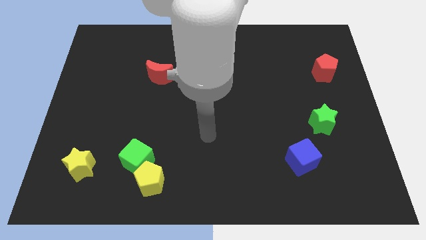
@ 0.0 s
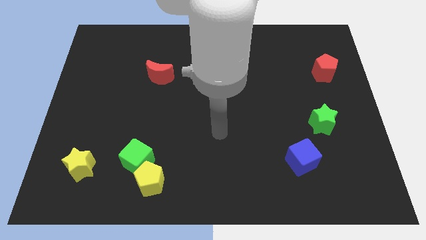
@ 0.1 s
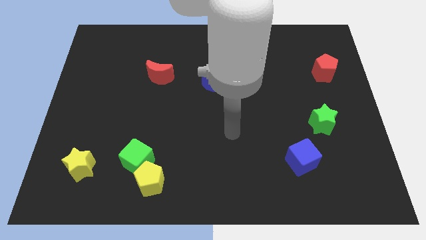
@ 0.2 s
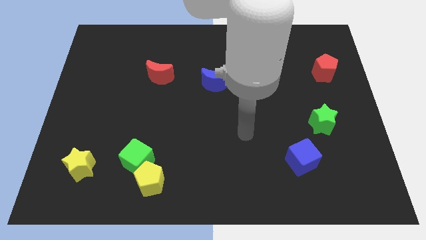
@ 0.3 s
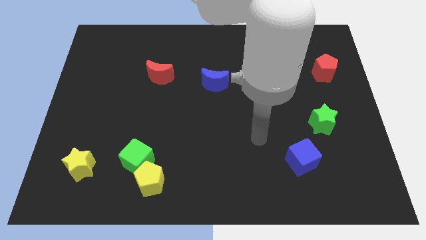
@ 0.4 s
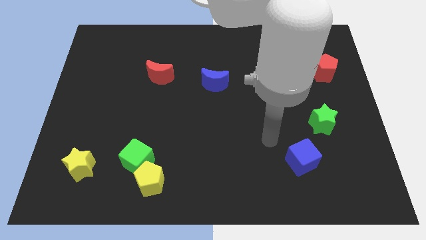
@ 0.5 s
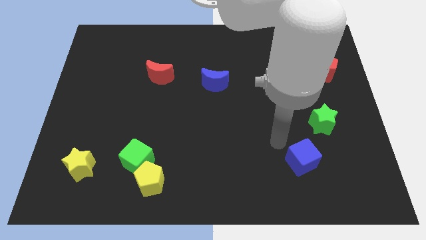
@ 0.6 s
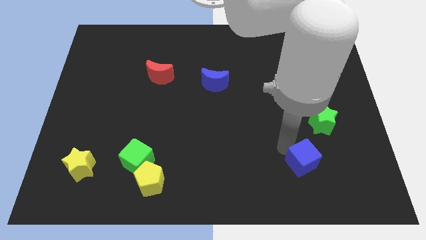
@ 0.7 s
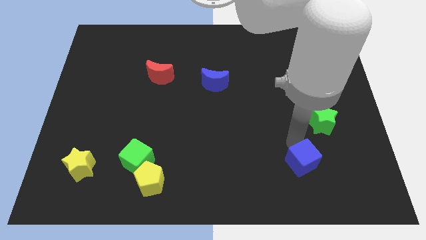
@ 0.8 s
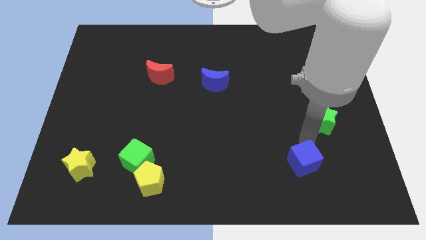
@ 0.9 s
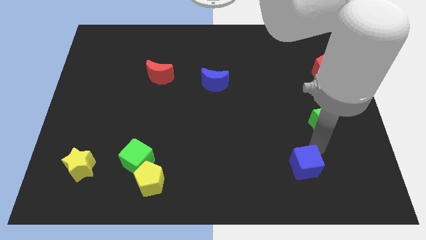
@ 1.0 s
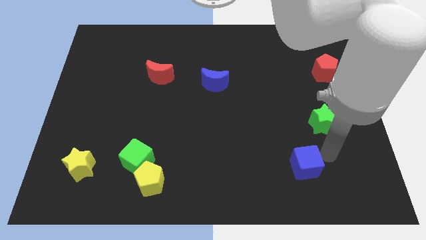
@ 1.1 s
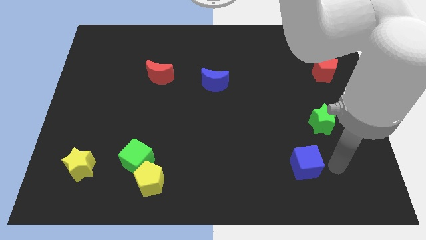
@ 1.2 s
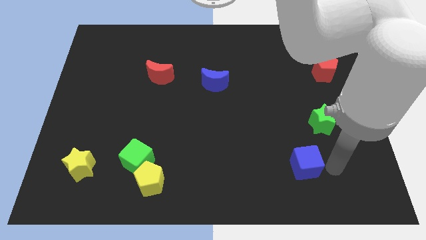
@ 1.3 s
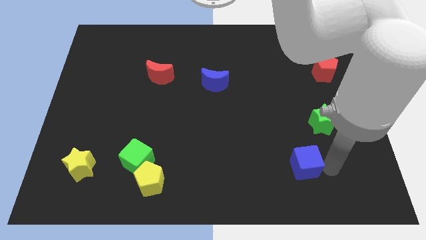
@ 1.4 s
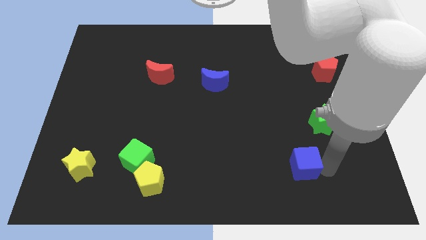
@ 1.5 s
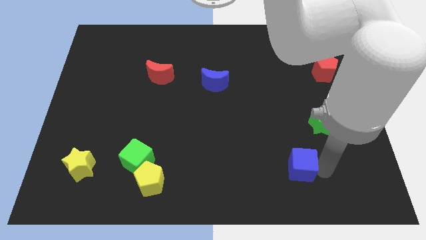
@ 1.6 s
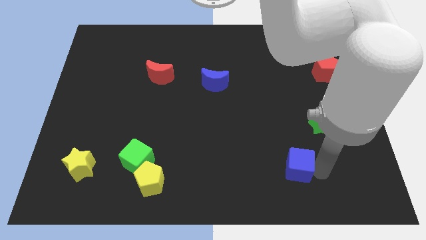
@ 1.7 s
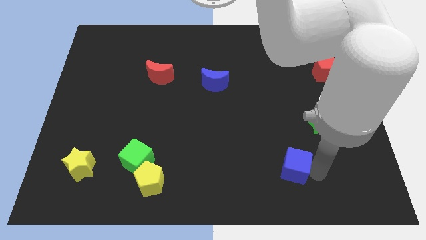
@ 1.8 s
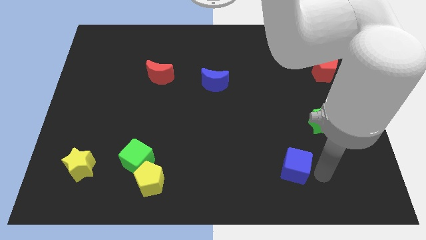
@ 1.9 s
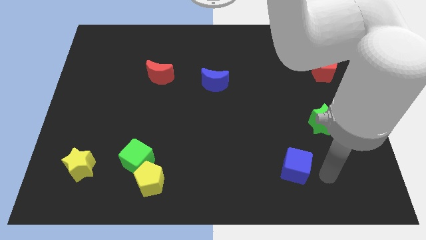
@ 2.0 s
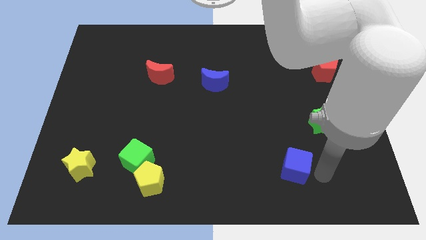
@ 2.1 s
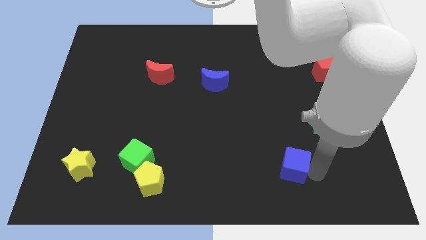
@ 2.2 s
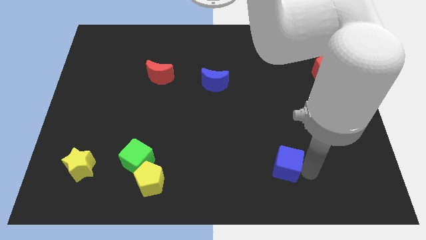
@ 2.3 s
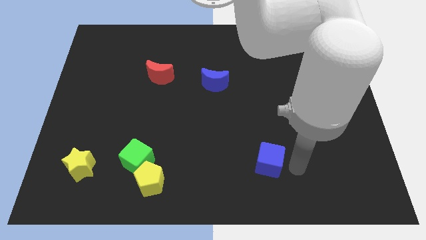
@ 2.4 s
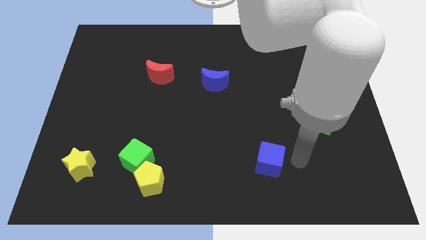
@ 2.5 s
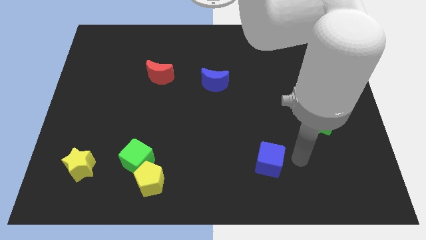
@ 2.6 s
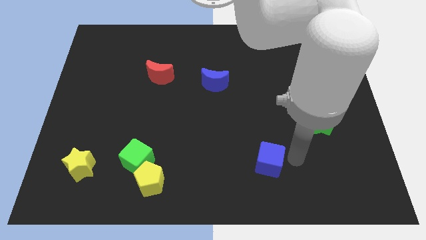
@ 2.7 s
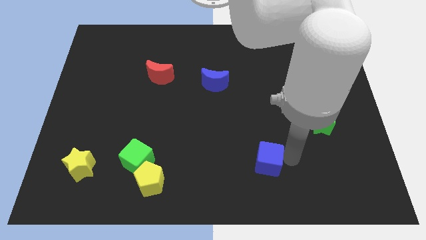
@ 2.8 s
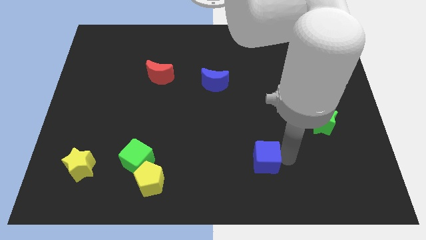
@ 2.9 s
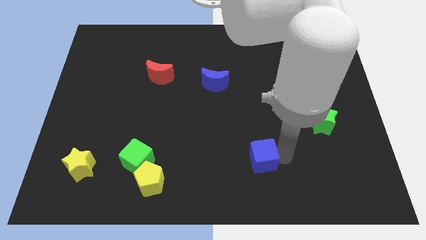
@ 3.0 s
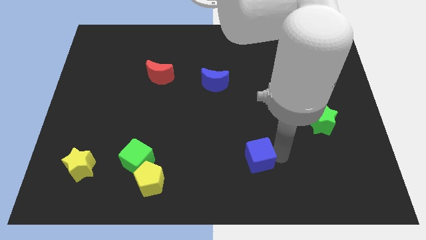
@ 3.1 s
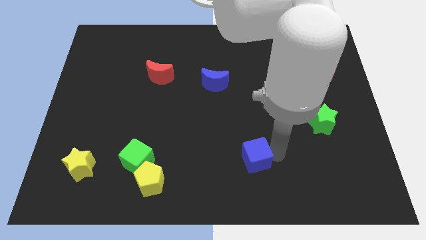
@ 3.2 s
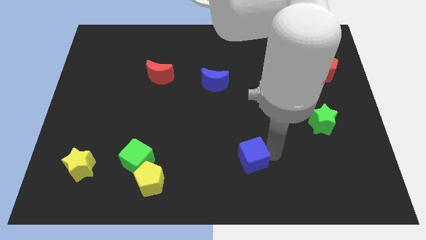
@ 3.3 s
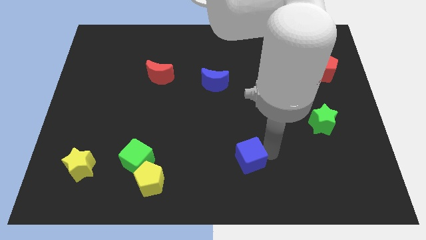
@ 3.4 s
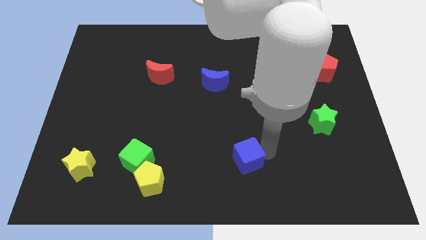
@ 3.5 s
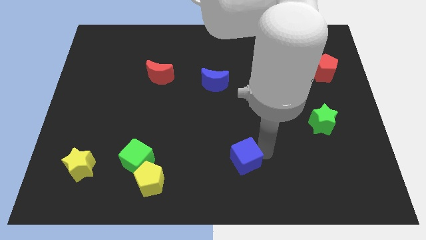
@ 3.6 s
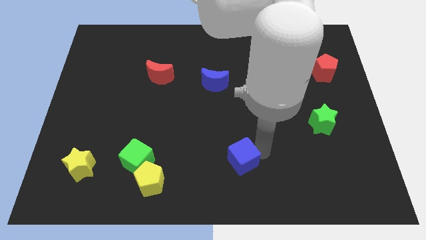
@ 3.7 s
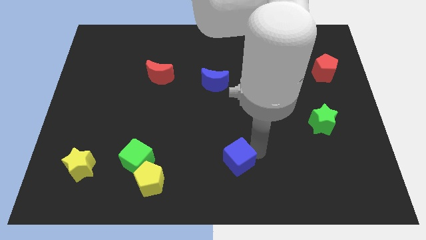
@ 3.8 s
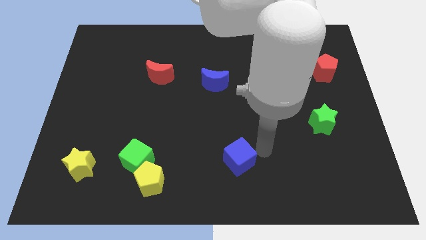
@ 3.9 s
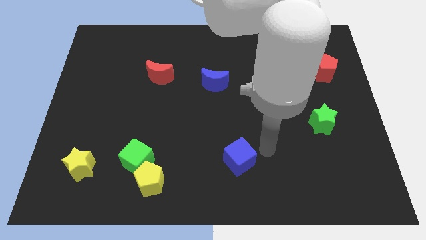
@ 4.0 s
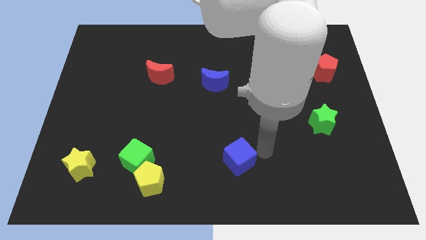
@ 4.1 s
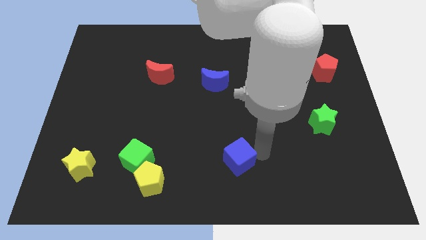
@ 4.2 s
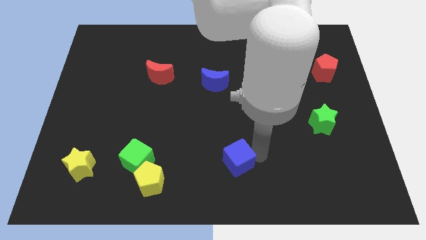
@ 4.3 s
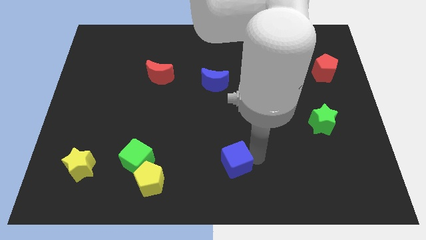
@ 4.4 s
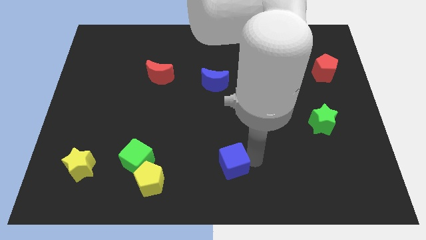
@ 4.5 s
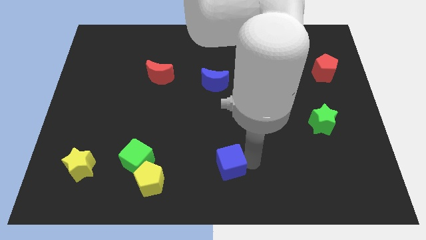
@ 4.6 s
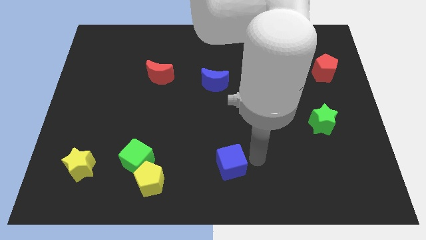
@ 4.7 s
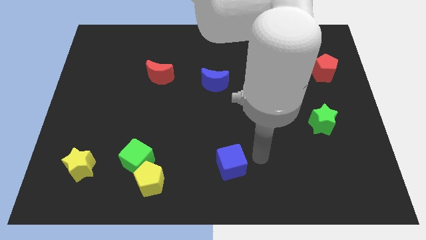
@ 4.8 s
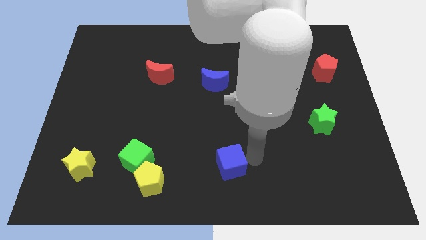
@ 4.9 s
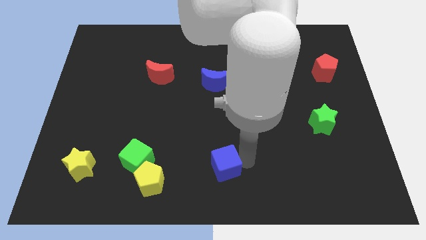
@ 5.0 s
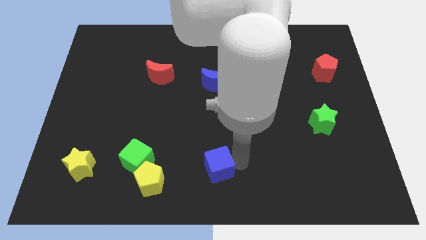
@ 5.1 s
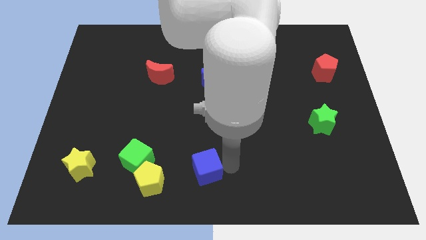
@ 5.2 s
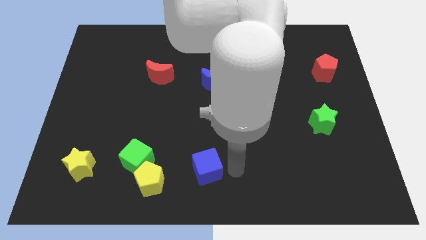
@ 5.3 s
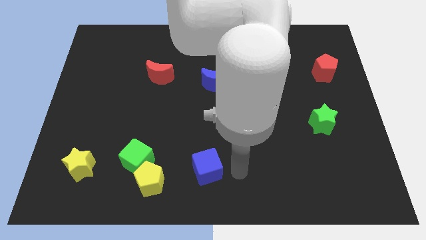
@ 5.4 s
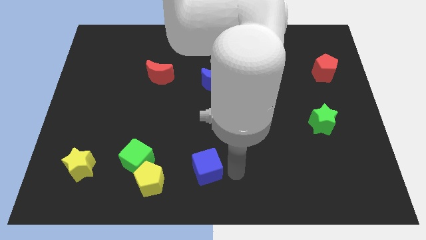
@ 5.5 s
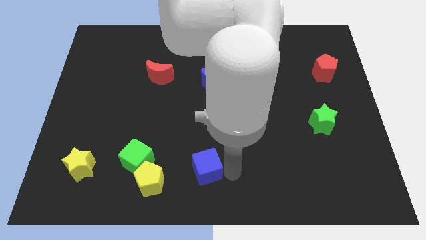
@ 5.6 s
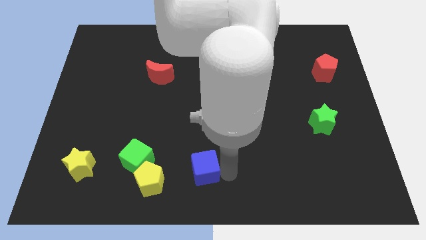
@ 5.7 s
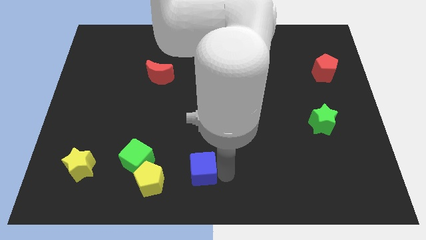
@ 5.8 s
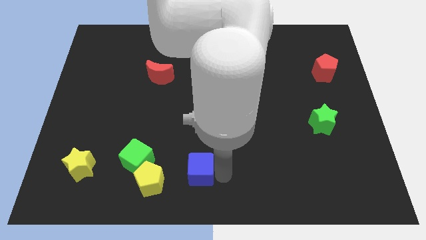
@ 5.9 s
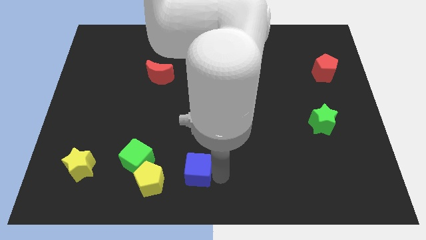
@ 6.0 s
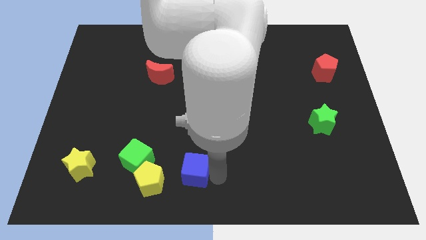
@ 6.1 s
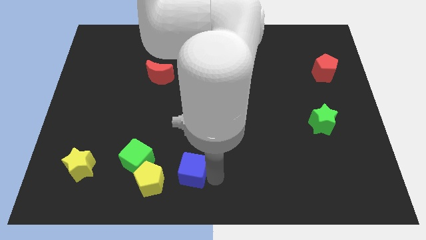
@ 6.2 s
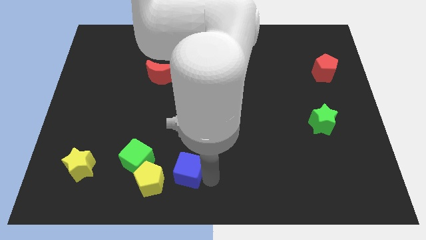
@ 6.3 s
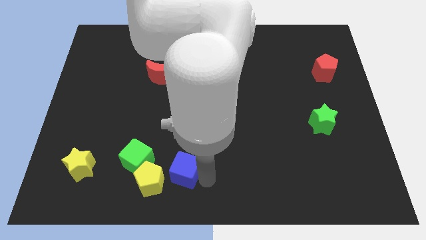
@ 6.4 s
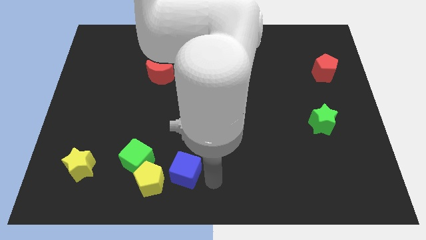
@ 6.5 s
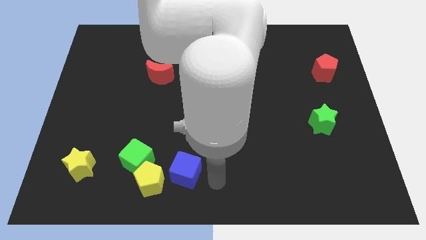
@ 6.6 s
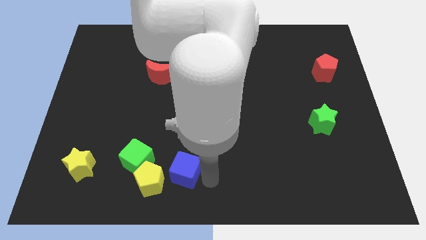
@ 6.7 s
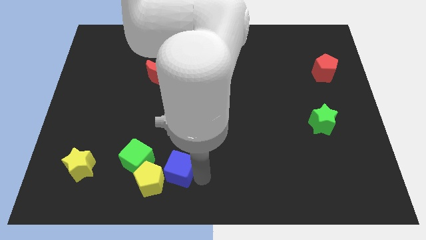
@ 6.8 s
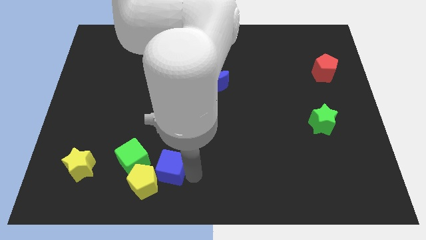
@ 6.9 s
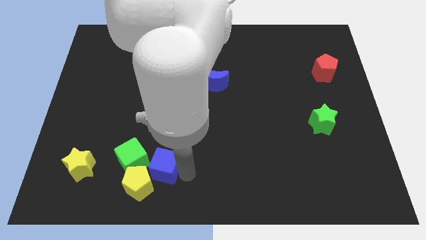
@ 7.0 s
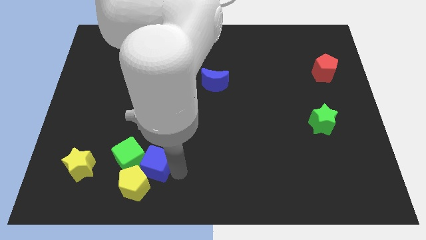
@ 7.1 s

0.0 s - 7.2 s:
push the blue cube close to the green cube

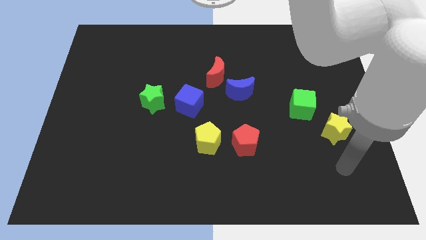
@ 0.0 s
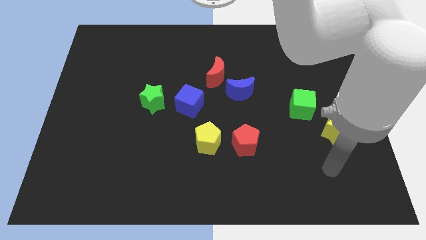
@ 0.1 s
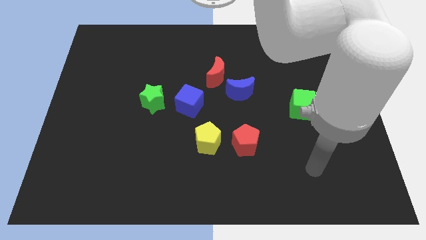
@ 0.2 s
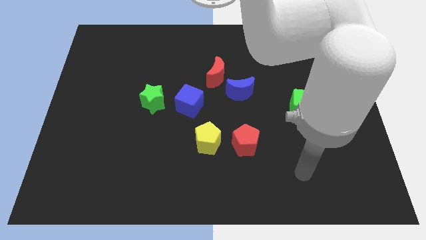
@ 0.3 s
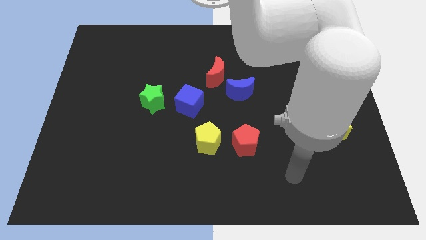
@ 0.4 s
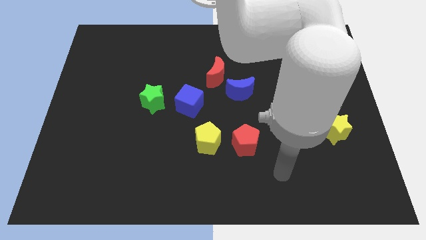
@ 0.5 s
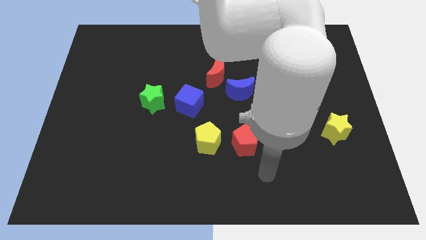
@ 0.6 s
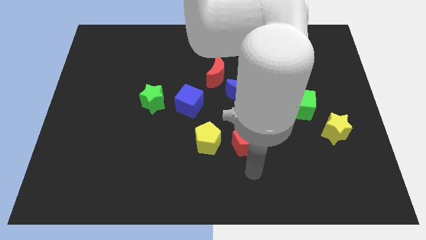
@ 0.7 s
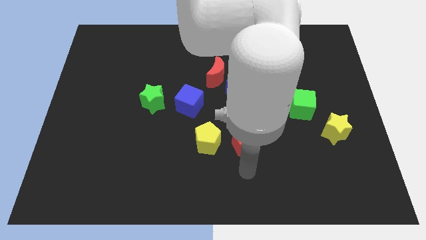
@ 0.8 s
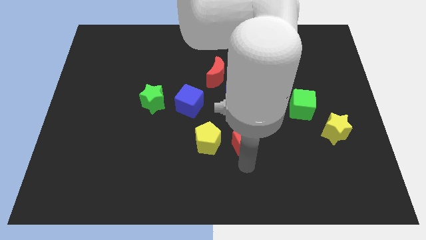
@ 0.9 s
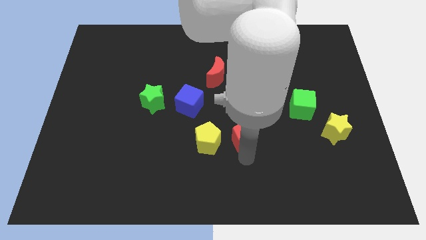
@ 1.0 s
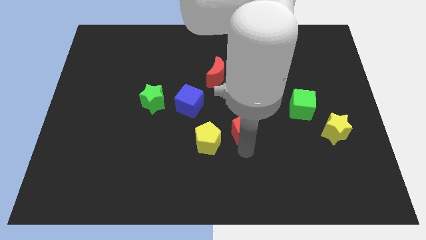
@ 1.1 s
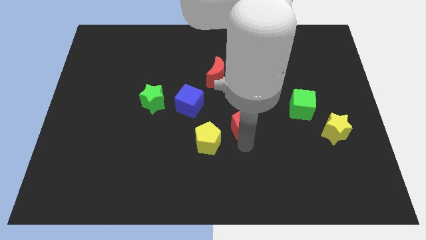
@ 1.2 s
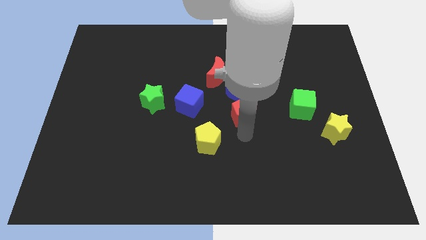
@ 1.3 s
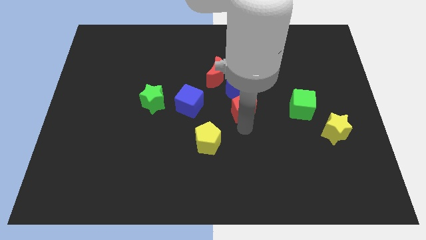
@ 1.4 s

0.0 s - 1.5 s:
slide the red pentagon next to the blue moon
